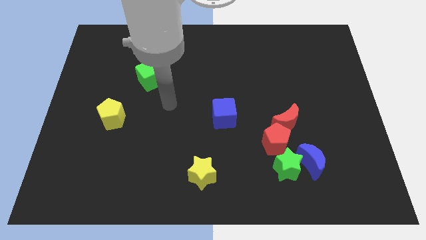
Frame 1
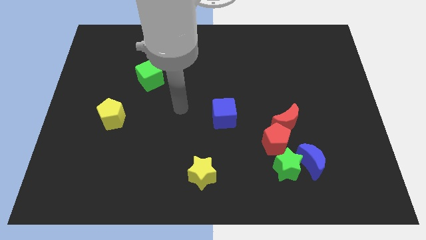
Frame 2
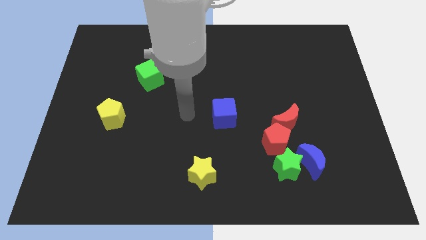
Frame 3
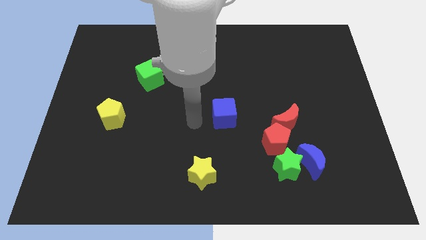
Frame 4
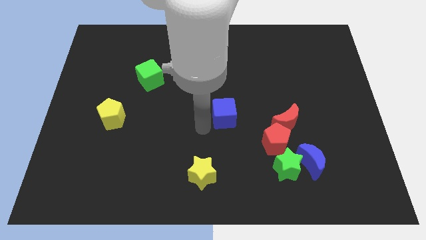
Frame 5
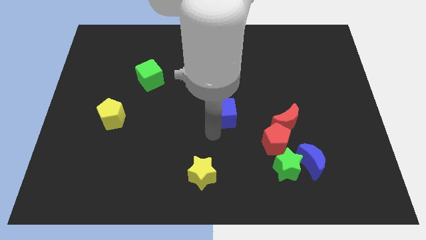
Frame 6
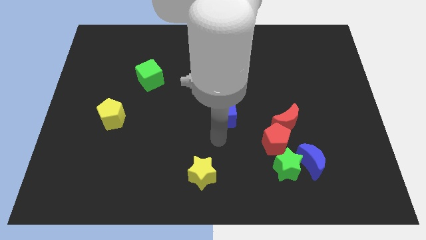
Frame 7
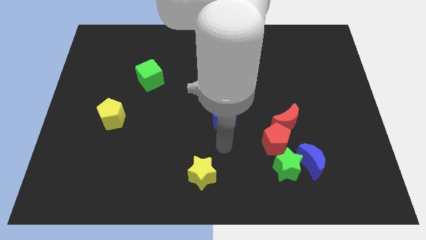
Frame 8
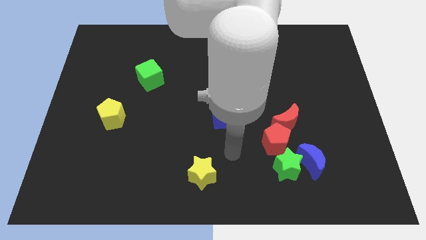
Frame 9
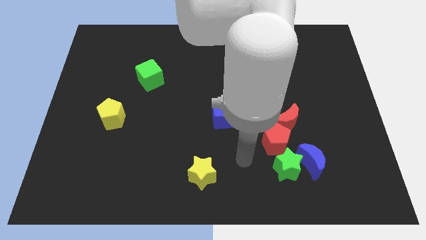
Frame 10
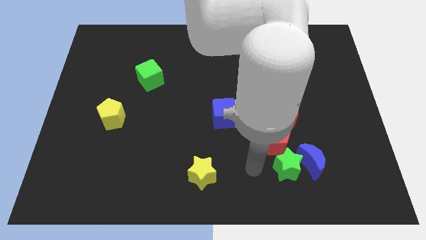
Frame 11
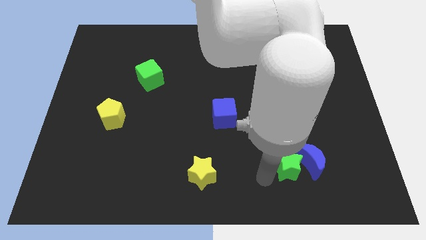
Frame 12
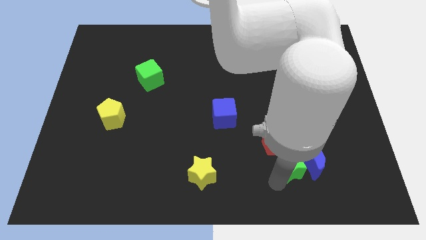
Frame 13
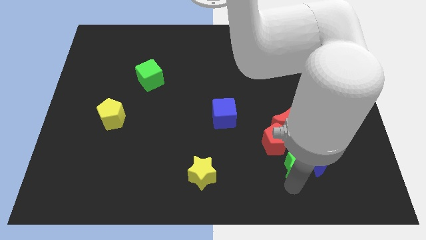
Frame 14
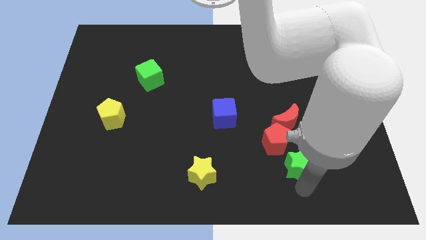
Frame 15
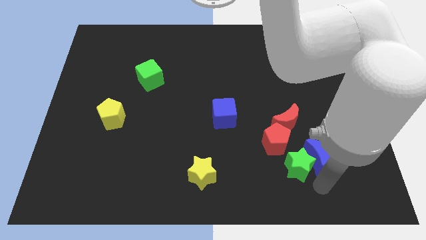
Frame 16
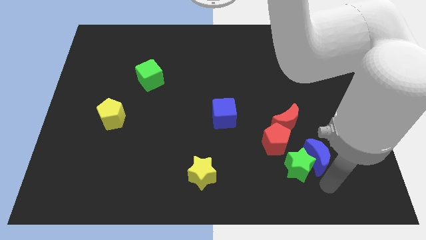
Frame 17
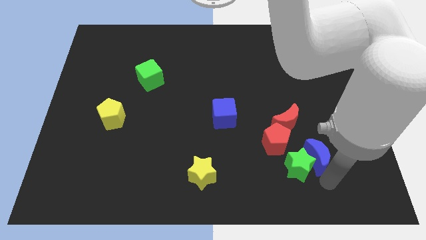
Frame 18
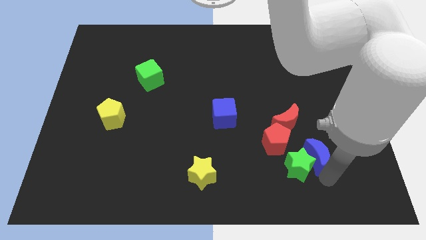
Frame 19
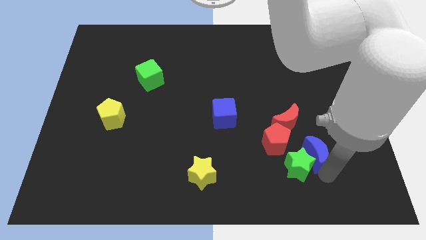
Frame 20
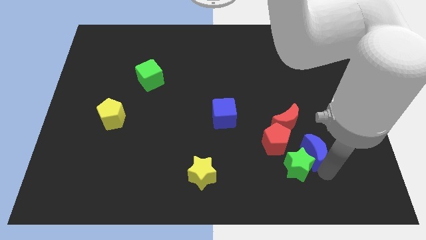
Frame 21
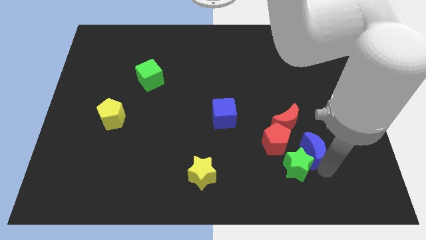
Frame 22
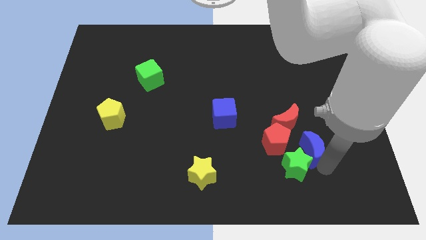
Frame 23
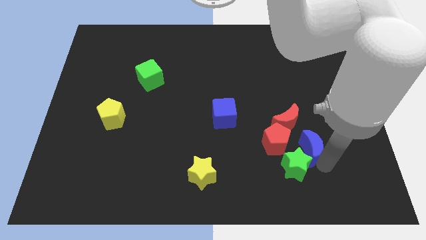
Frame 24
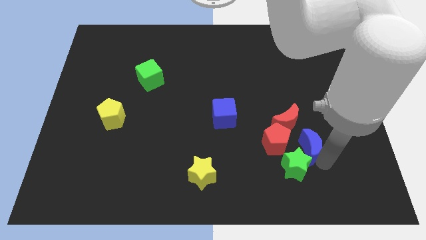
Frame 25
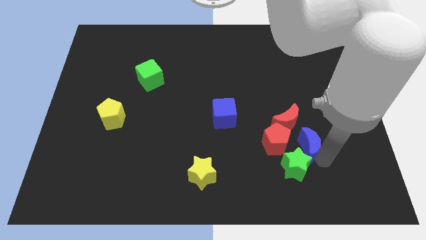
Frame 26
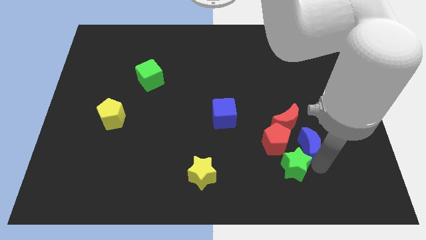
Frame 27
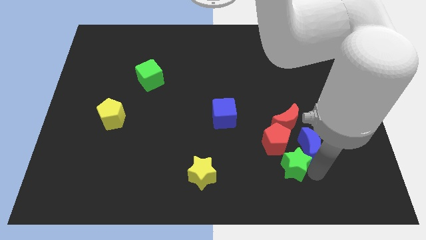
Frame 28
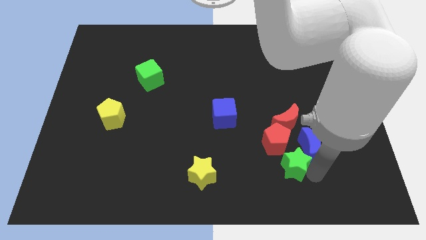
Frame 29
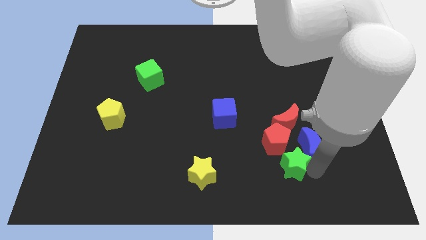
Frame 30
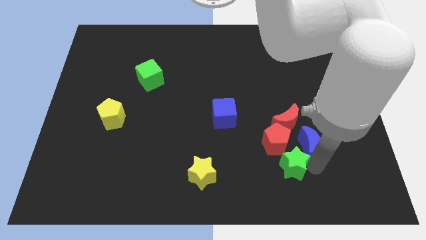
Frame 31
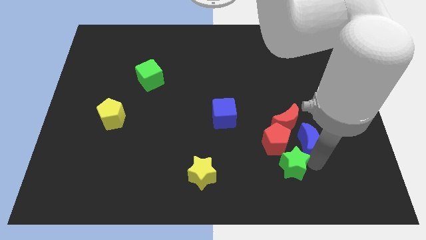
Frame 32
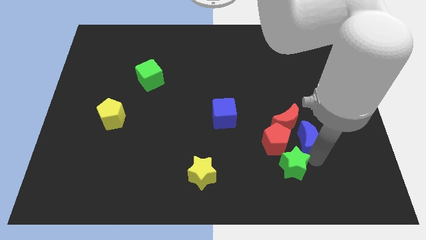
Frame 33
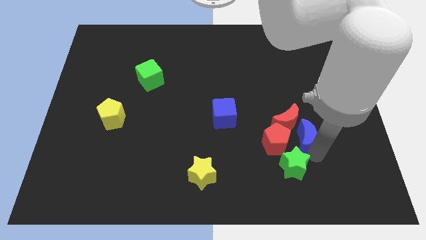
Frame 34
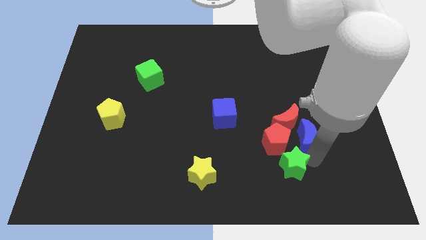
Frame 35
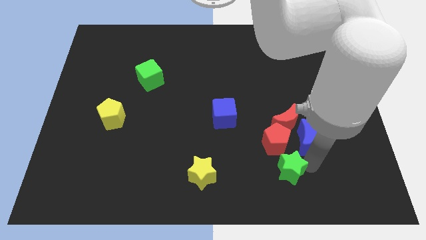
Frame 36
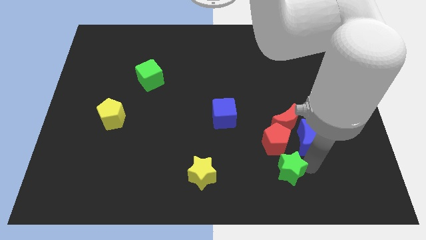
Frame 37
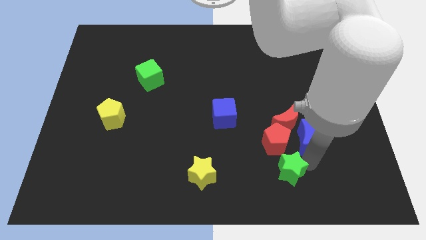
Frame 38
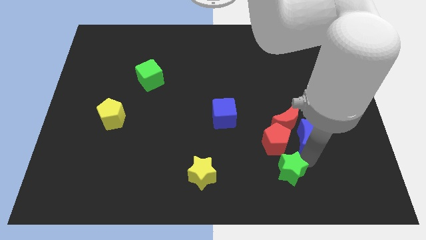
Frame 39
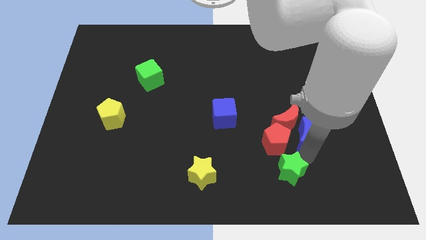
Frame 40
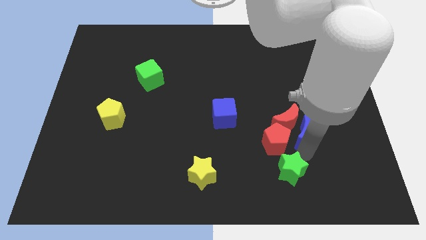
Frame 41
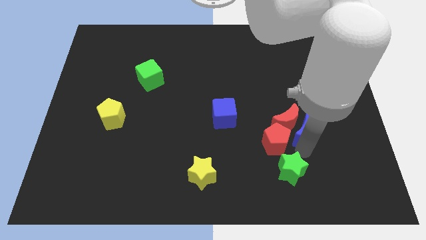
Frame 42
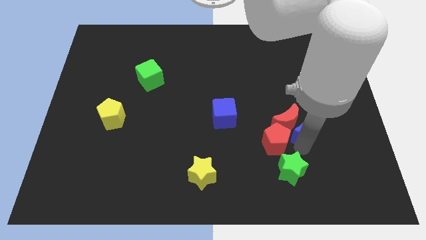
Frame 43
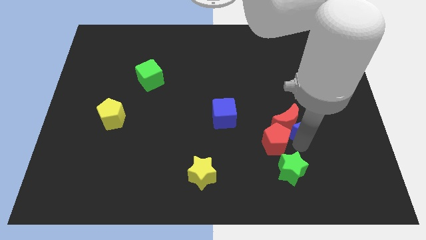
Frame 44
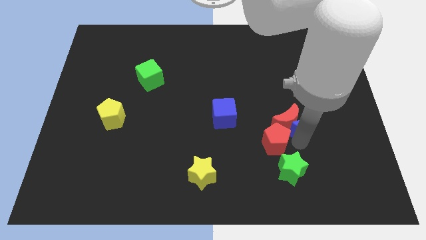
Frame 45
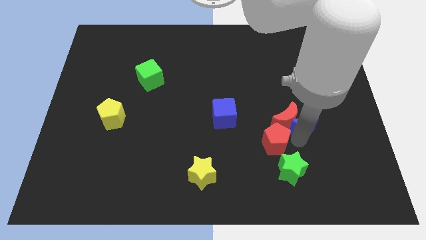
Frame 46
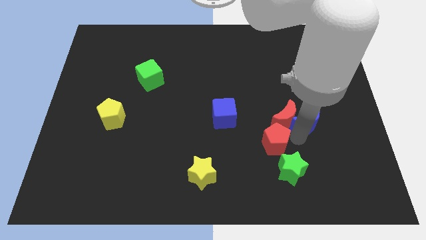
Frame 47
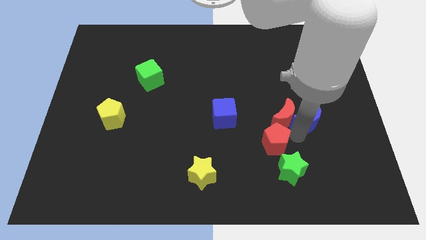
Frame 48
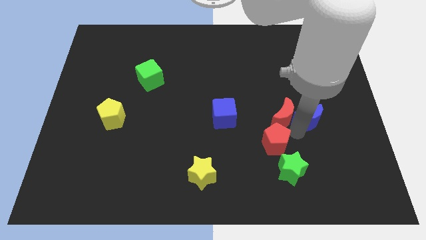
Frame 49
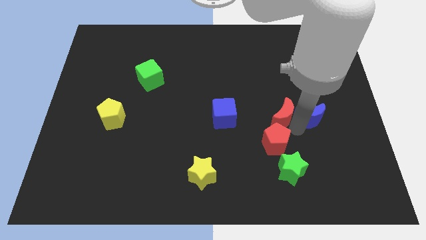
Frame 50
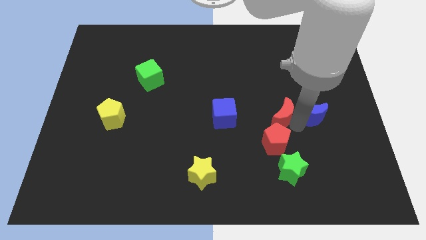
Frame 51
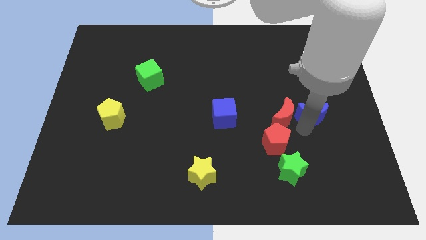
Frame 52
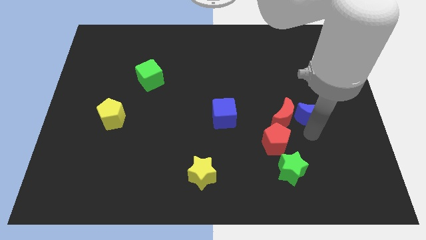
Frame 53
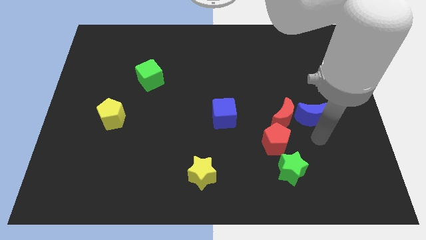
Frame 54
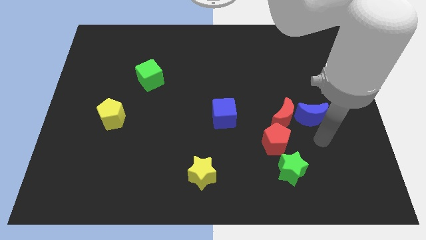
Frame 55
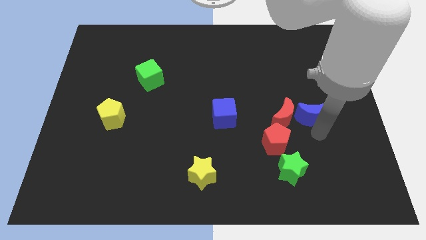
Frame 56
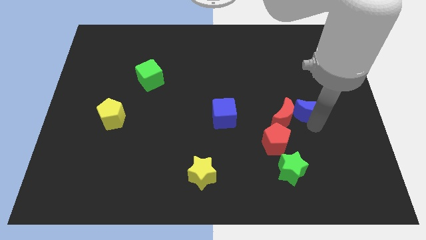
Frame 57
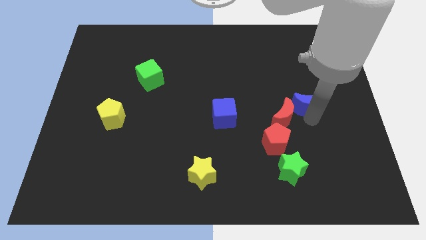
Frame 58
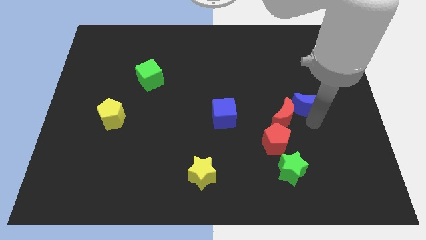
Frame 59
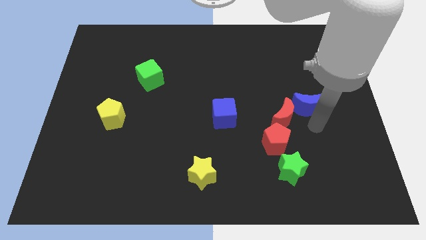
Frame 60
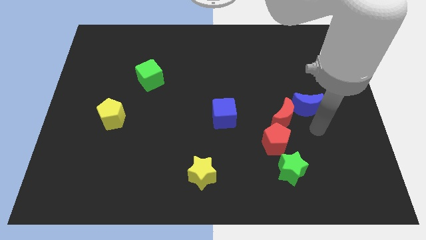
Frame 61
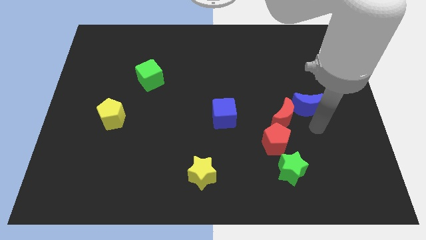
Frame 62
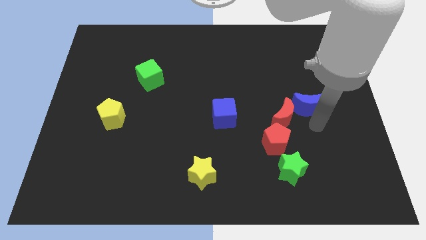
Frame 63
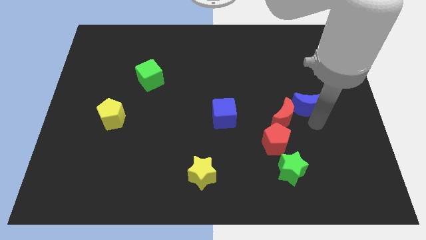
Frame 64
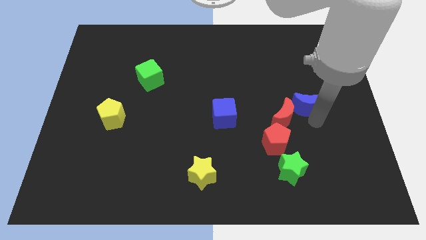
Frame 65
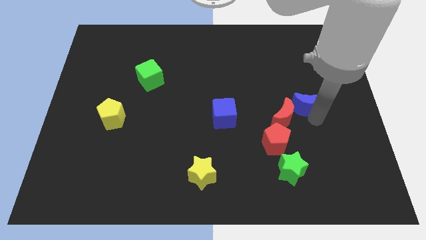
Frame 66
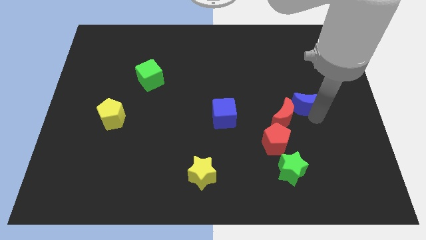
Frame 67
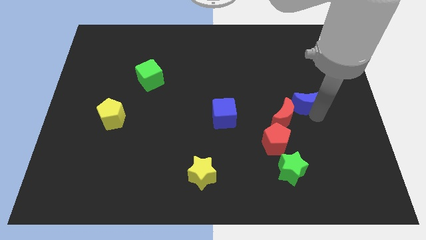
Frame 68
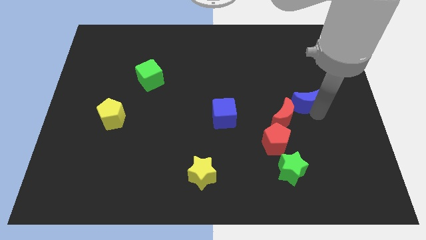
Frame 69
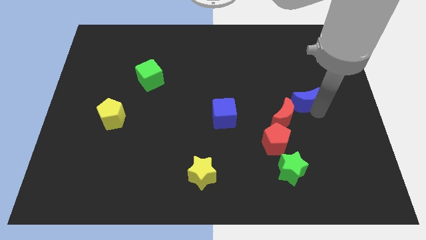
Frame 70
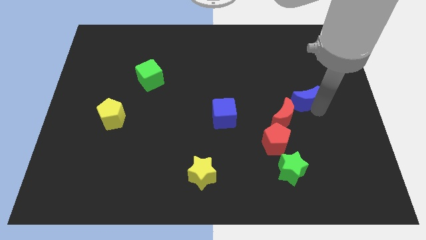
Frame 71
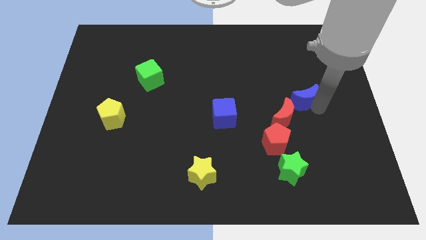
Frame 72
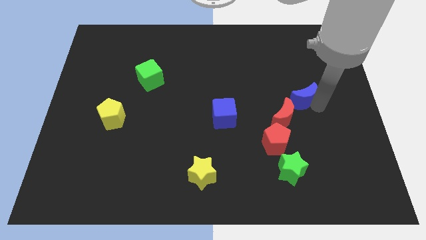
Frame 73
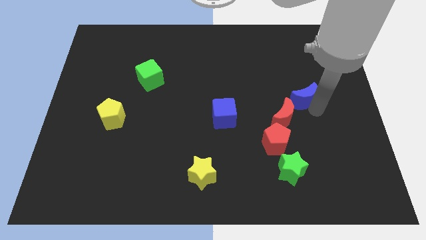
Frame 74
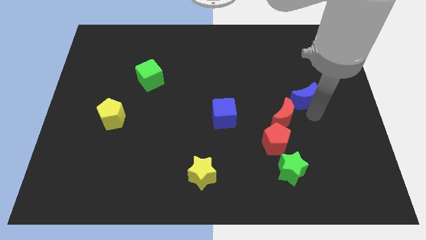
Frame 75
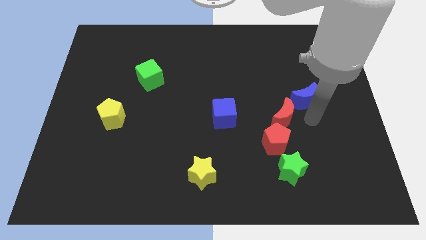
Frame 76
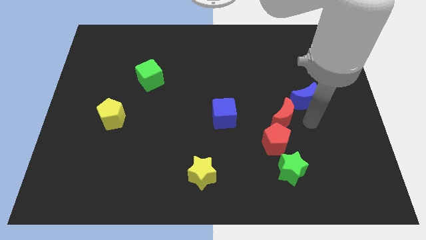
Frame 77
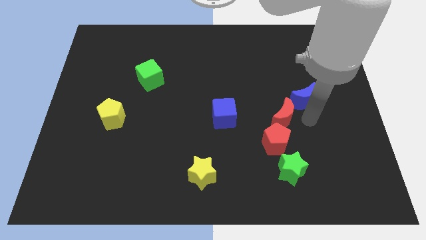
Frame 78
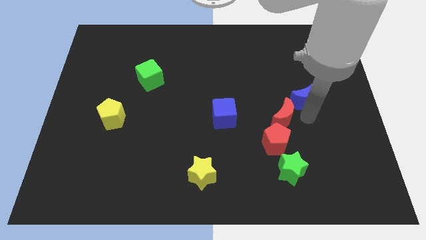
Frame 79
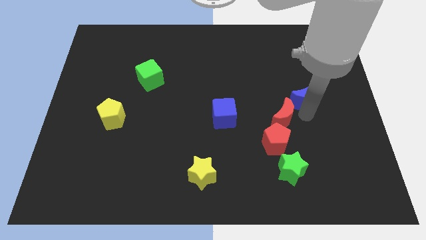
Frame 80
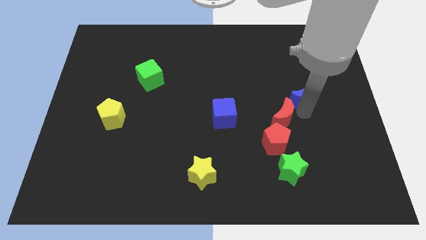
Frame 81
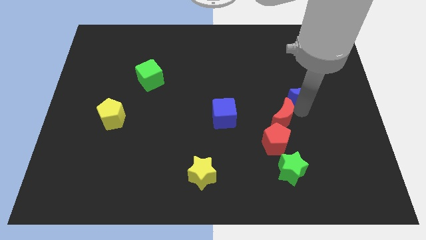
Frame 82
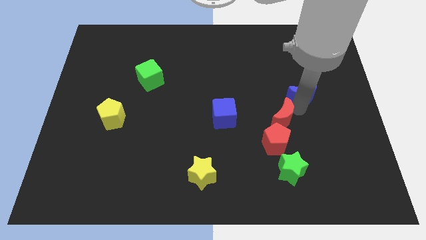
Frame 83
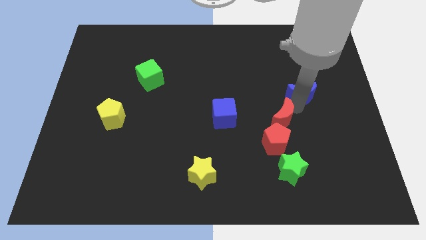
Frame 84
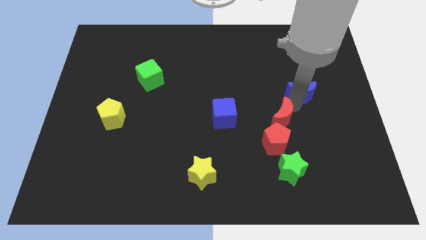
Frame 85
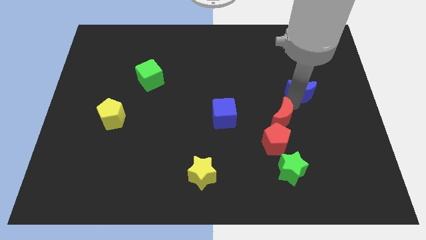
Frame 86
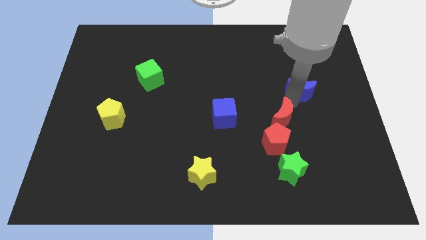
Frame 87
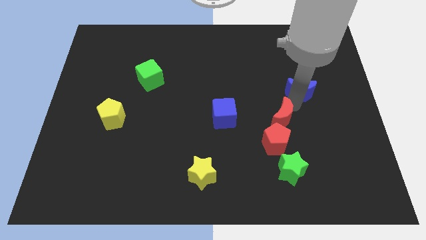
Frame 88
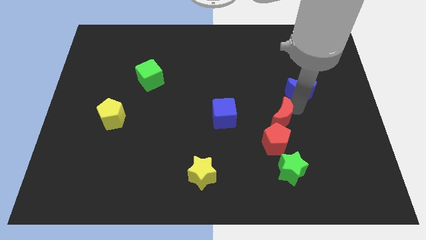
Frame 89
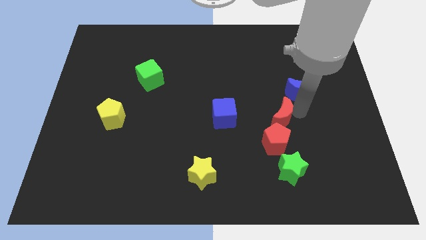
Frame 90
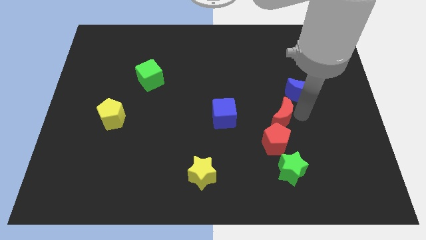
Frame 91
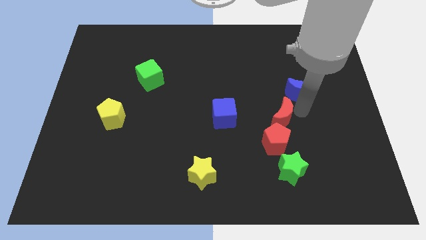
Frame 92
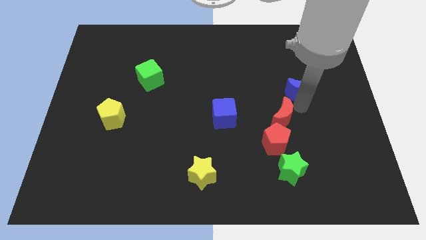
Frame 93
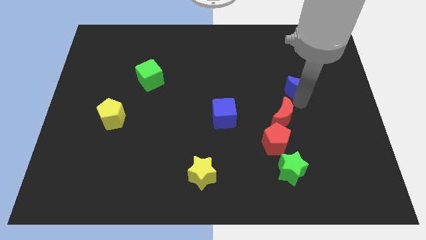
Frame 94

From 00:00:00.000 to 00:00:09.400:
move the blue moon upwards
